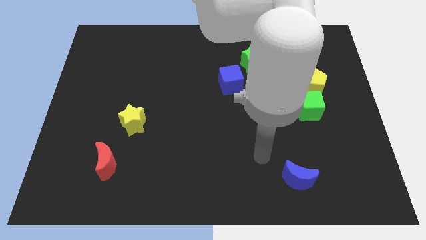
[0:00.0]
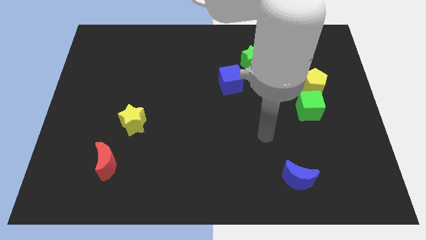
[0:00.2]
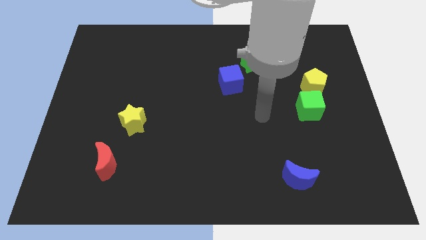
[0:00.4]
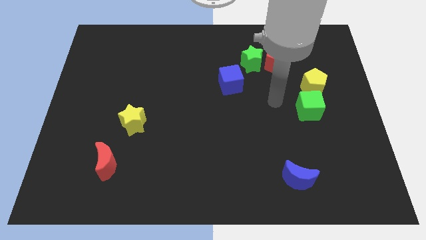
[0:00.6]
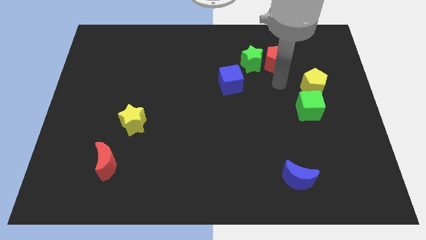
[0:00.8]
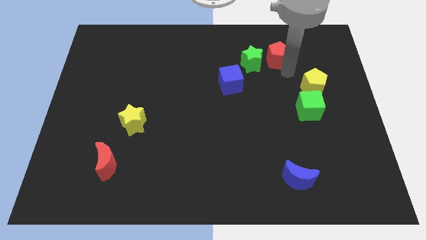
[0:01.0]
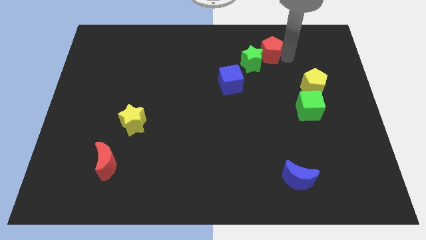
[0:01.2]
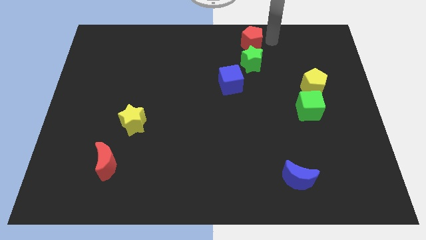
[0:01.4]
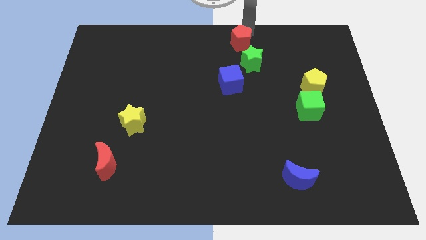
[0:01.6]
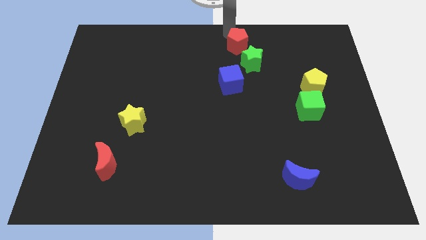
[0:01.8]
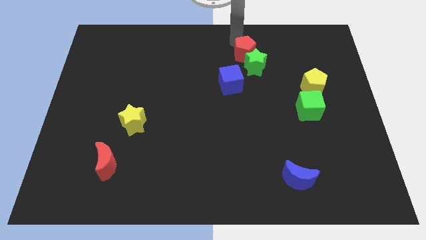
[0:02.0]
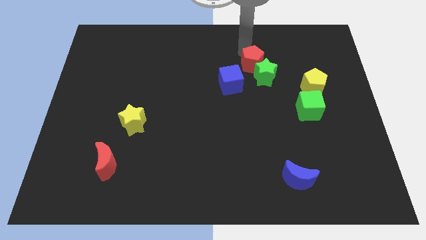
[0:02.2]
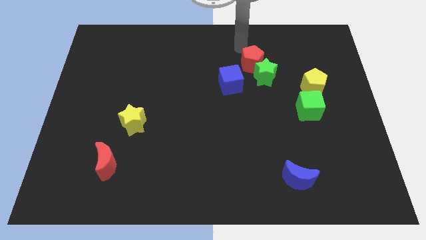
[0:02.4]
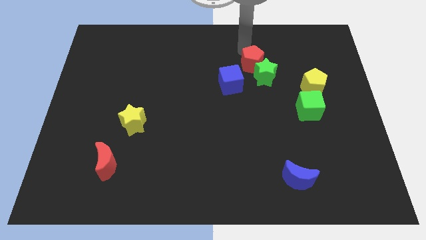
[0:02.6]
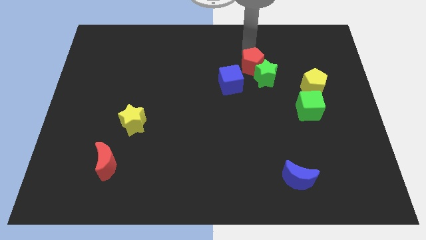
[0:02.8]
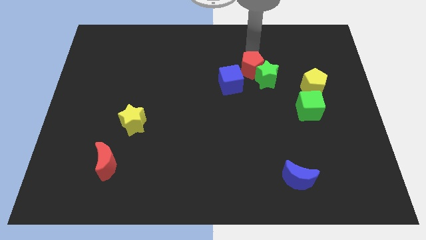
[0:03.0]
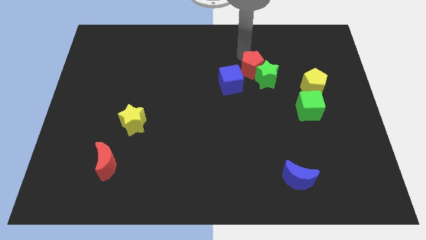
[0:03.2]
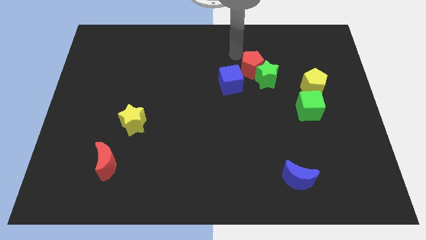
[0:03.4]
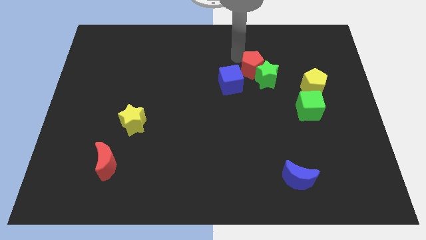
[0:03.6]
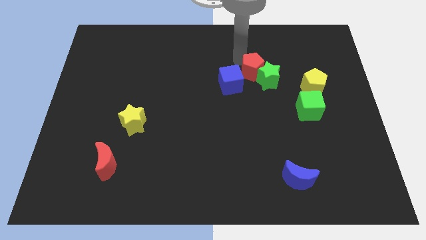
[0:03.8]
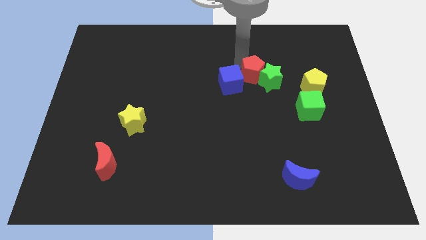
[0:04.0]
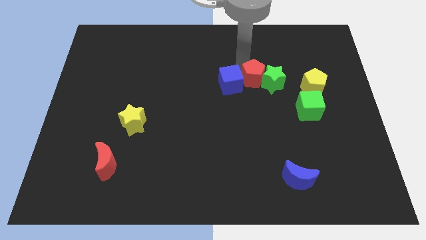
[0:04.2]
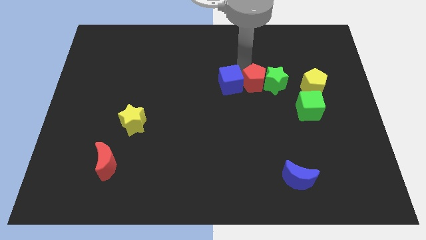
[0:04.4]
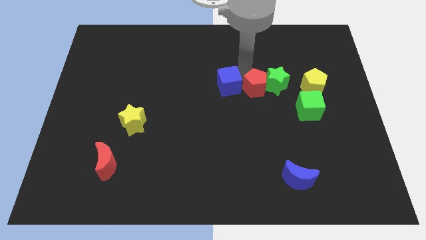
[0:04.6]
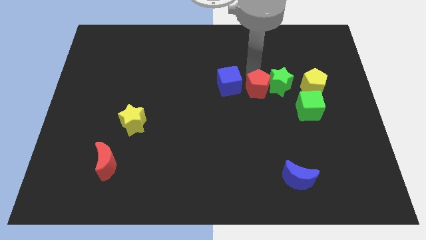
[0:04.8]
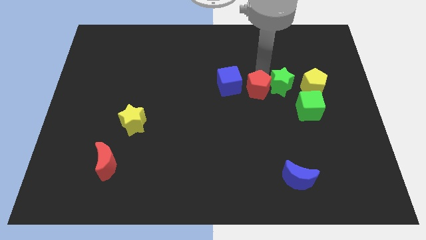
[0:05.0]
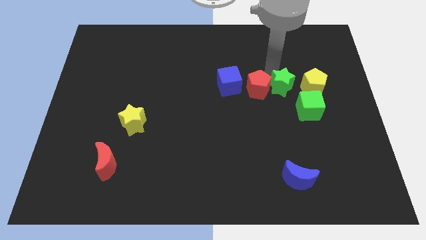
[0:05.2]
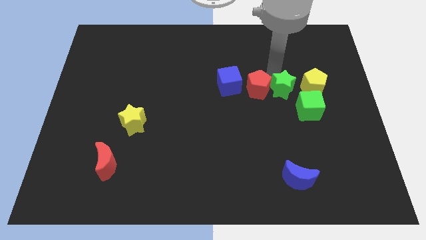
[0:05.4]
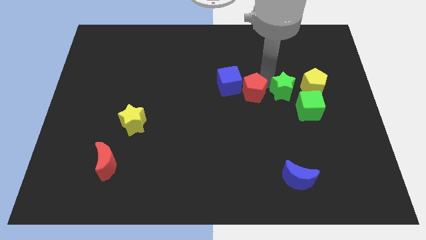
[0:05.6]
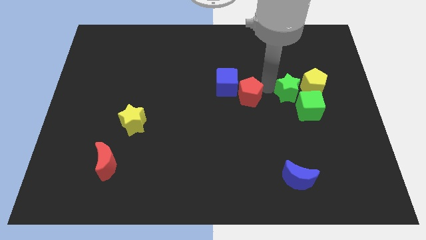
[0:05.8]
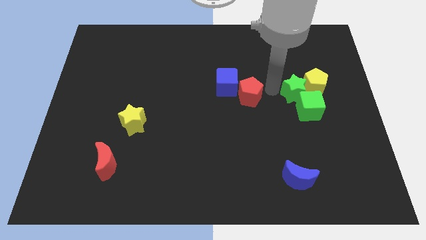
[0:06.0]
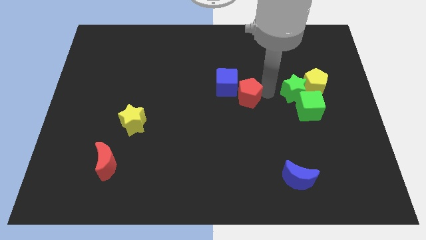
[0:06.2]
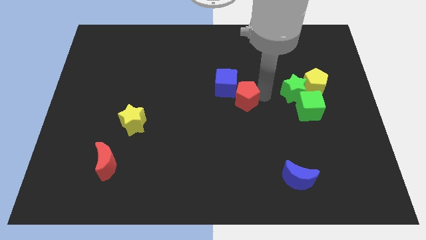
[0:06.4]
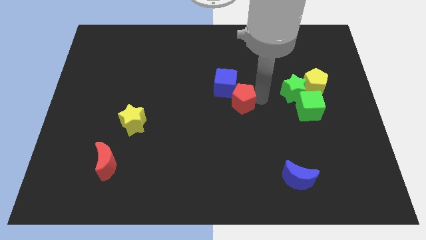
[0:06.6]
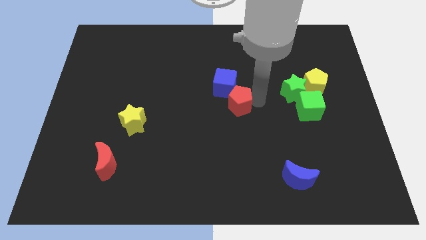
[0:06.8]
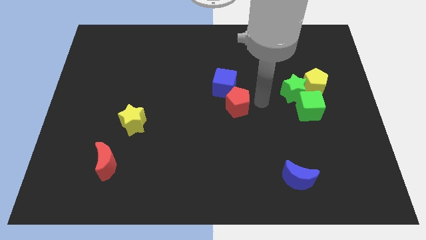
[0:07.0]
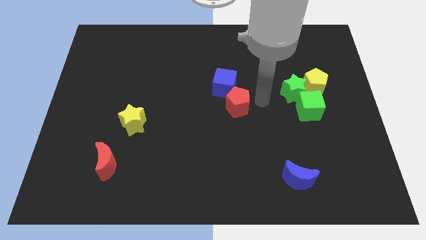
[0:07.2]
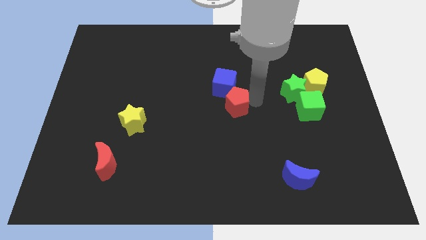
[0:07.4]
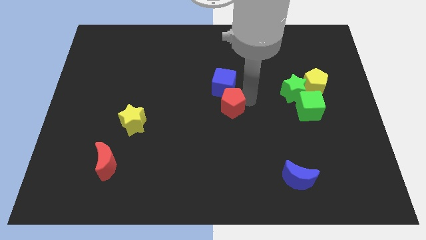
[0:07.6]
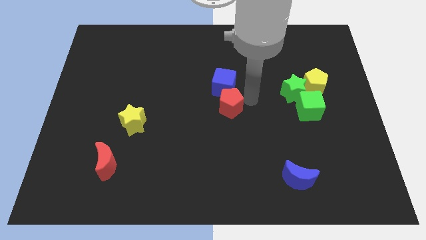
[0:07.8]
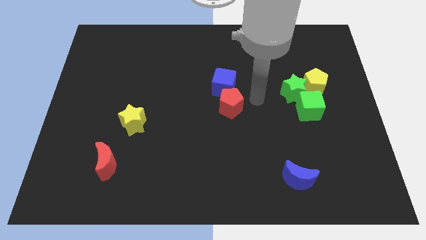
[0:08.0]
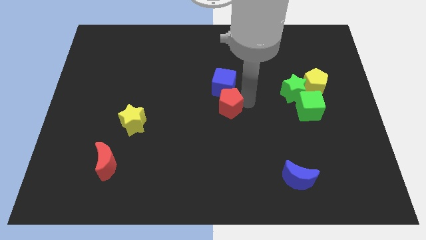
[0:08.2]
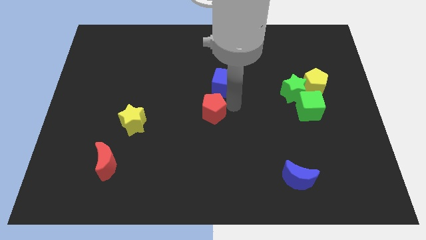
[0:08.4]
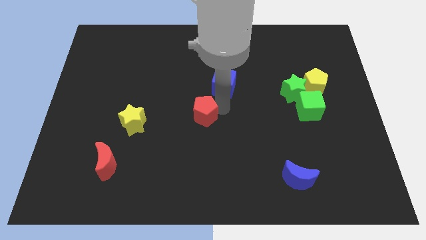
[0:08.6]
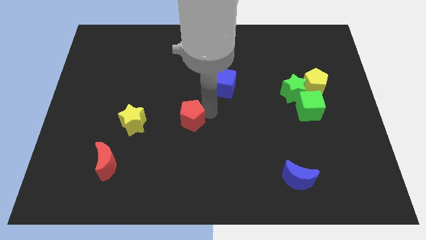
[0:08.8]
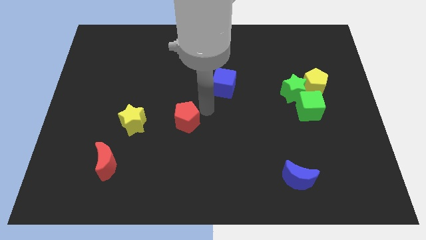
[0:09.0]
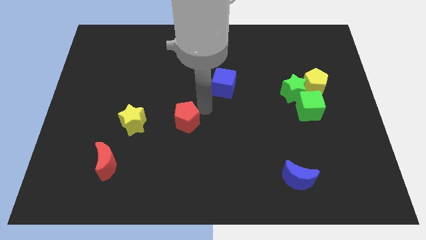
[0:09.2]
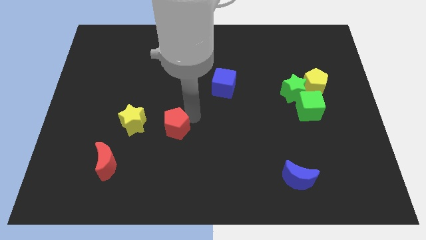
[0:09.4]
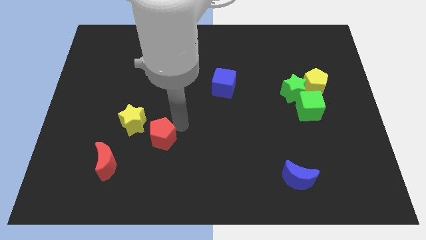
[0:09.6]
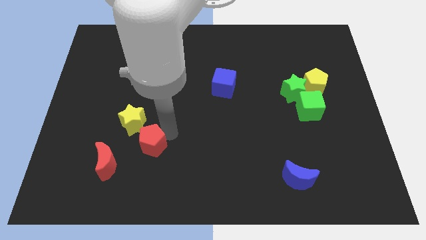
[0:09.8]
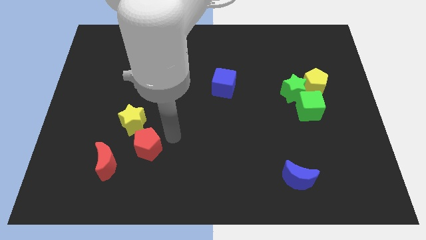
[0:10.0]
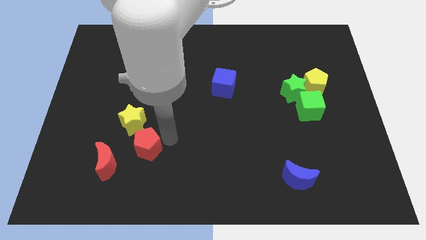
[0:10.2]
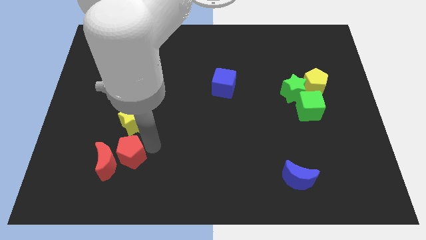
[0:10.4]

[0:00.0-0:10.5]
slide the red pentagon towards the red moon

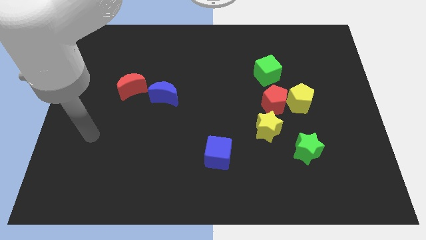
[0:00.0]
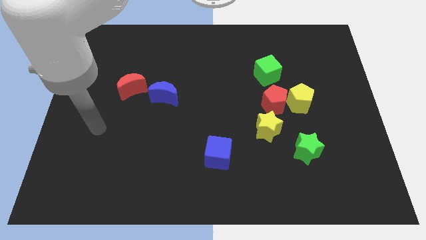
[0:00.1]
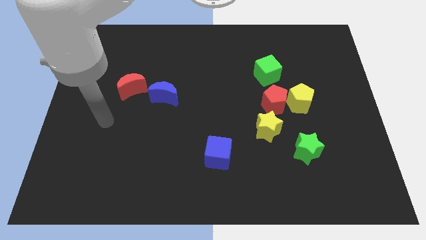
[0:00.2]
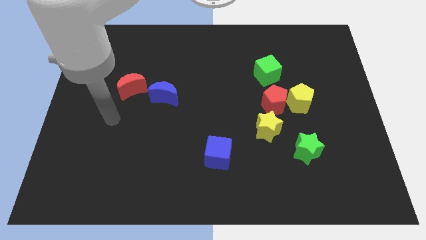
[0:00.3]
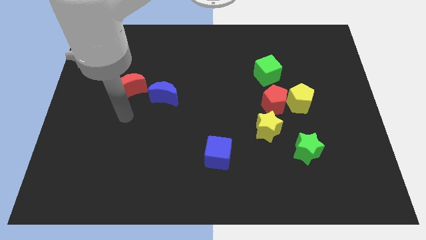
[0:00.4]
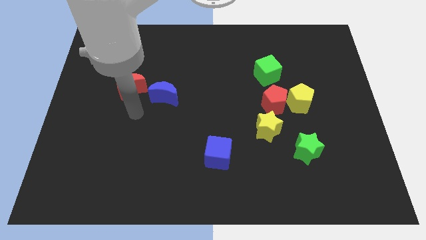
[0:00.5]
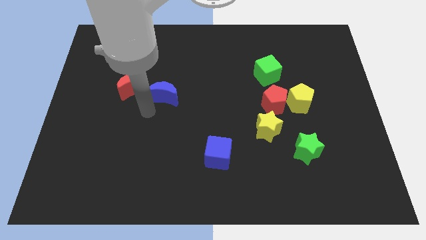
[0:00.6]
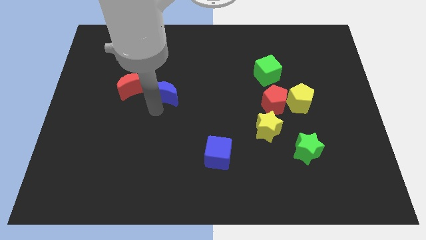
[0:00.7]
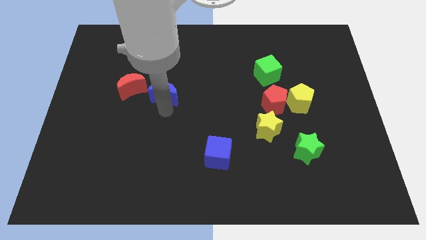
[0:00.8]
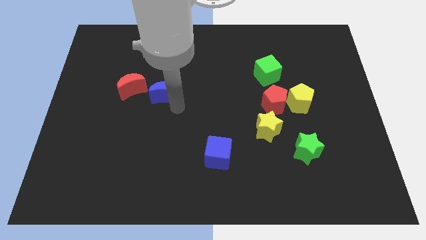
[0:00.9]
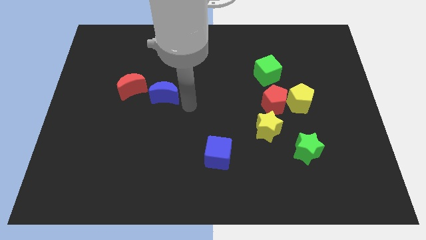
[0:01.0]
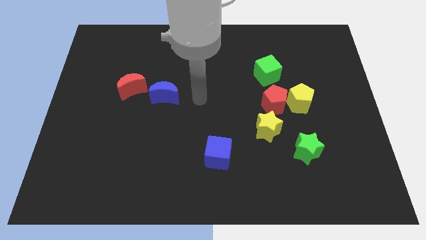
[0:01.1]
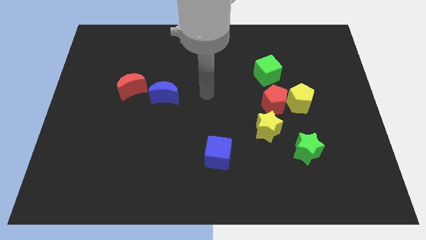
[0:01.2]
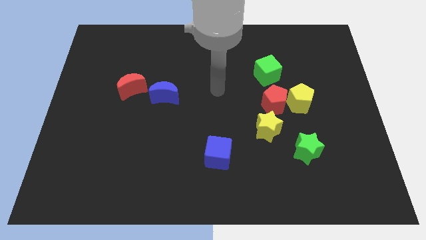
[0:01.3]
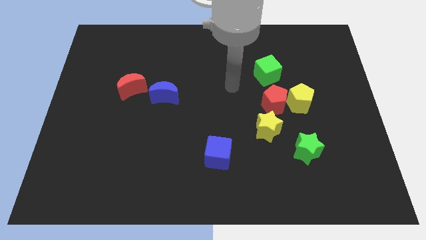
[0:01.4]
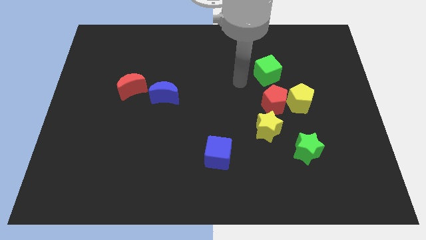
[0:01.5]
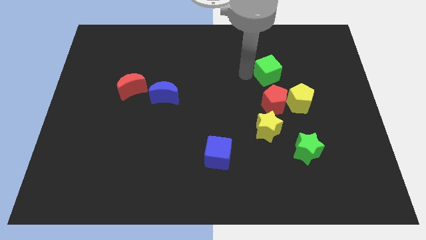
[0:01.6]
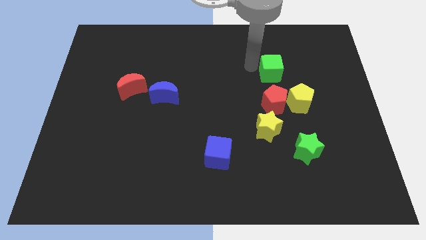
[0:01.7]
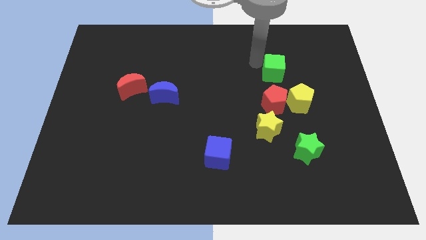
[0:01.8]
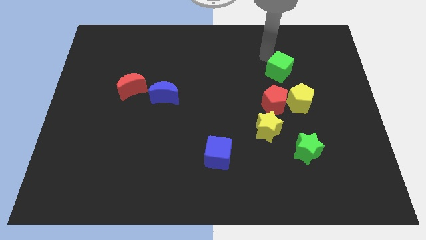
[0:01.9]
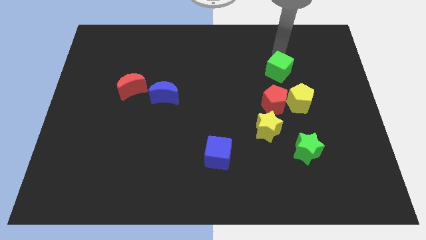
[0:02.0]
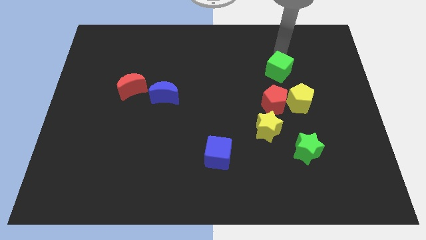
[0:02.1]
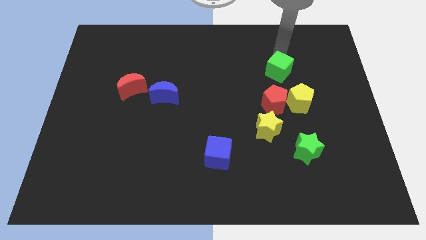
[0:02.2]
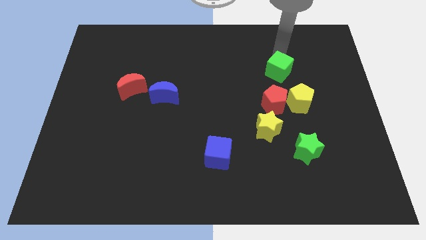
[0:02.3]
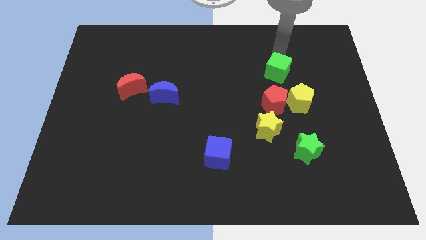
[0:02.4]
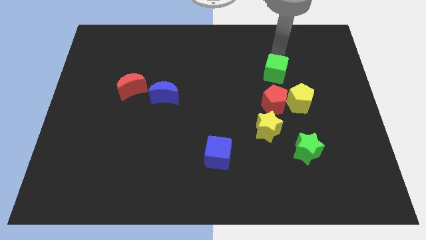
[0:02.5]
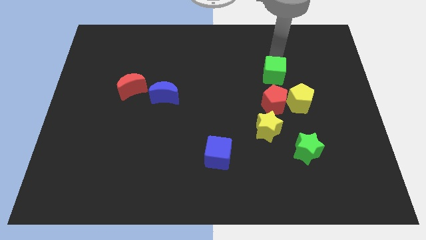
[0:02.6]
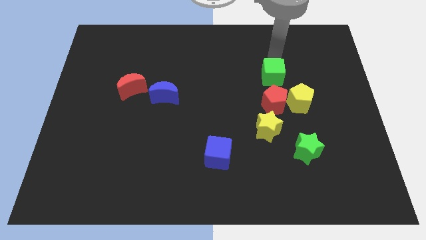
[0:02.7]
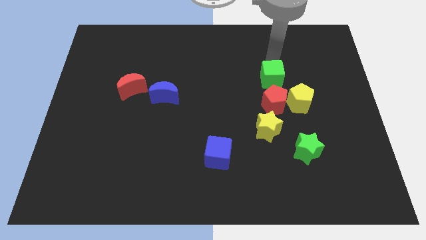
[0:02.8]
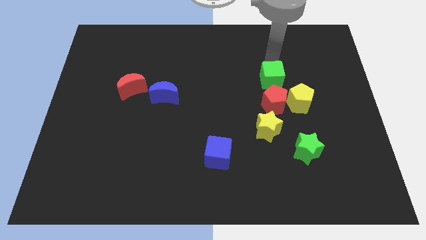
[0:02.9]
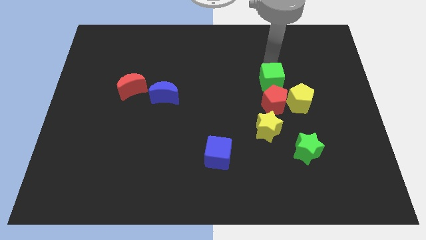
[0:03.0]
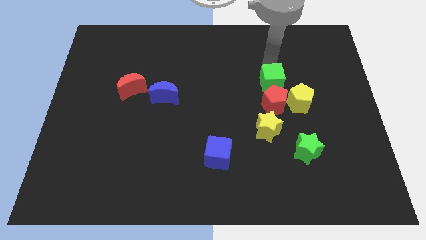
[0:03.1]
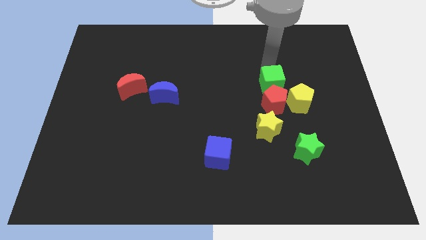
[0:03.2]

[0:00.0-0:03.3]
push the green cube to the red pentagon
